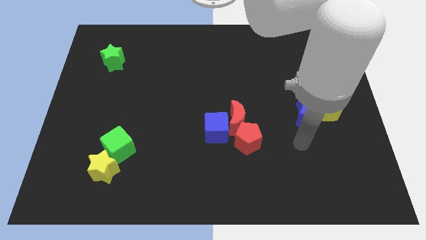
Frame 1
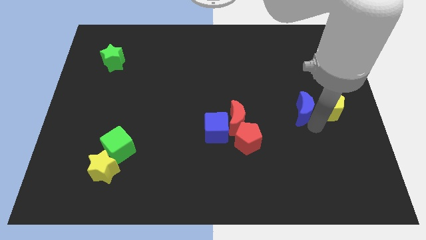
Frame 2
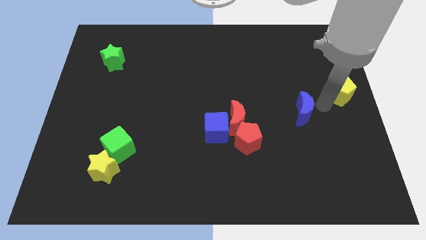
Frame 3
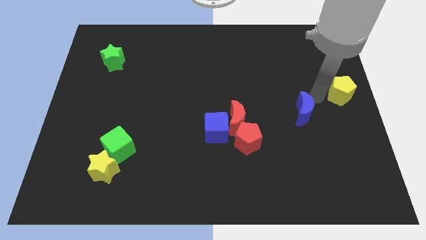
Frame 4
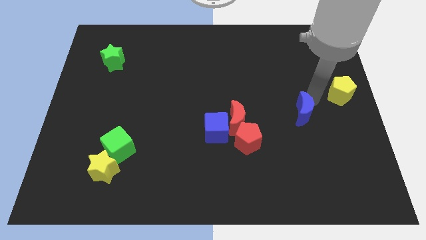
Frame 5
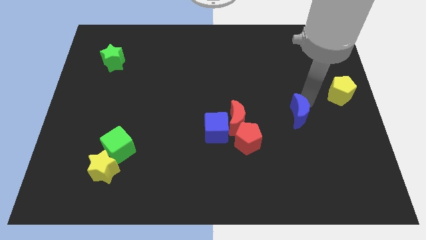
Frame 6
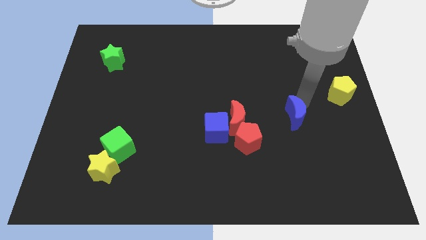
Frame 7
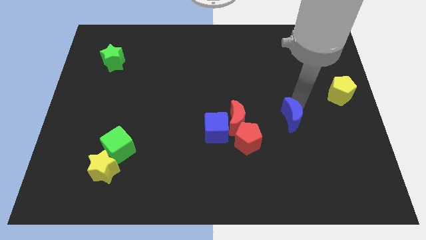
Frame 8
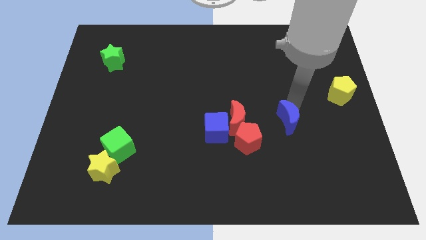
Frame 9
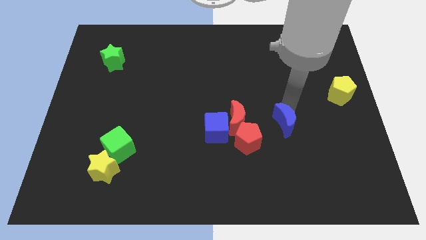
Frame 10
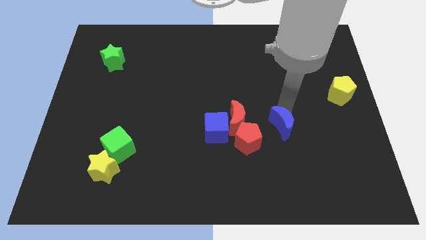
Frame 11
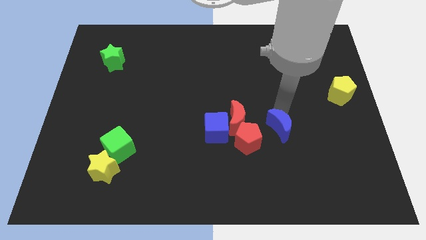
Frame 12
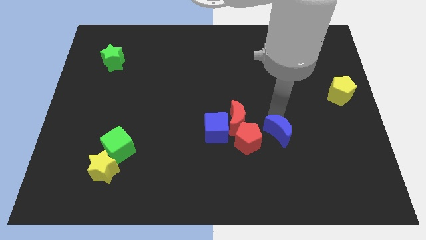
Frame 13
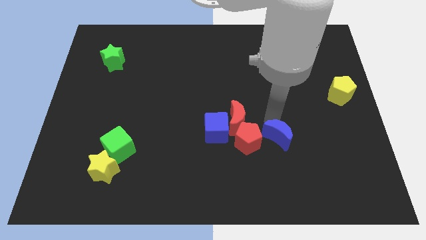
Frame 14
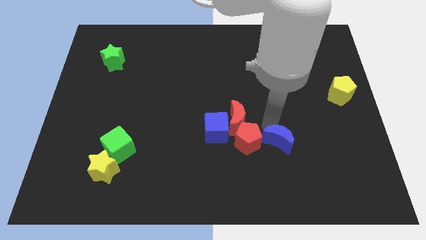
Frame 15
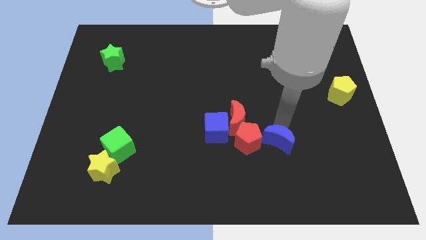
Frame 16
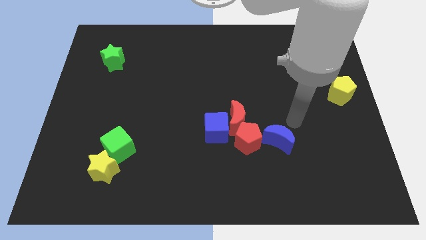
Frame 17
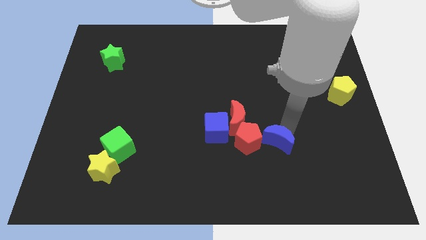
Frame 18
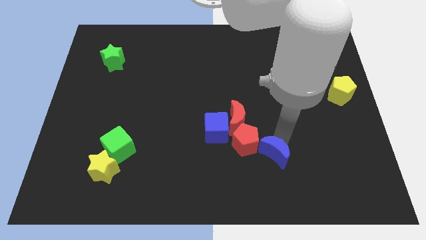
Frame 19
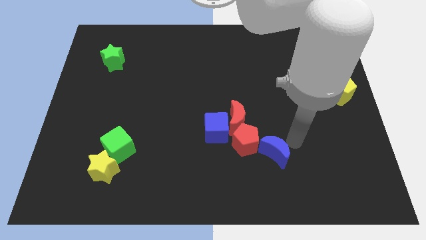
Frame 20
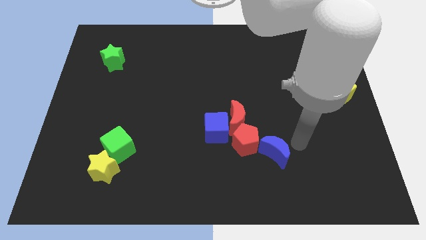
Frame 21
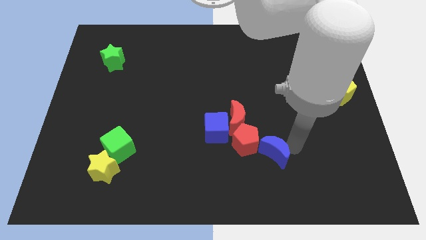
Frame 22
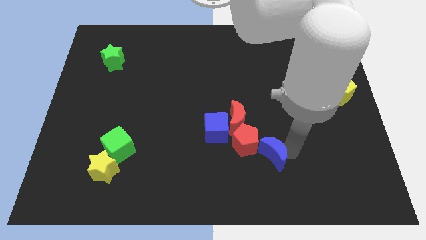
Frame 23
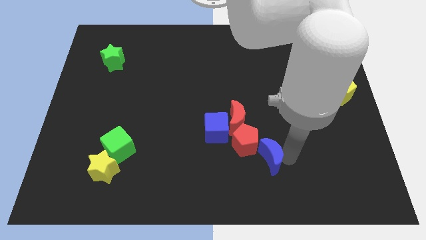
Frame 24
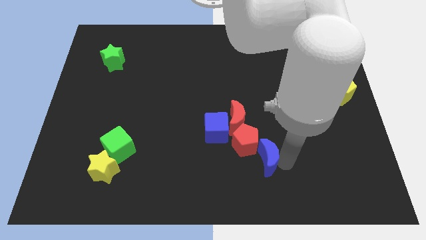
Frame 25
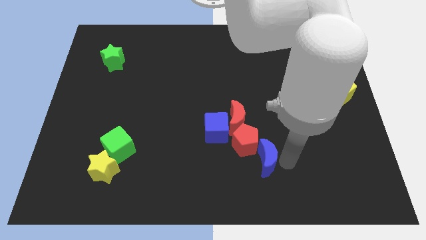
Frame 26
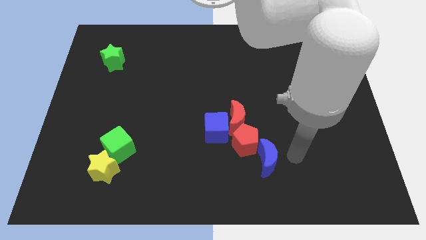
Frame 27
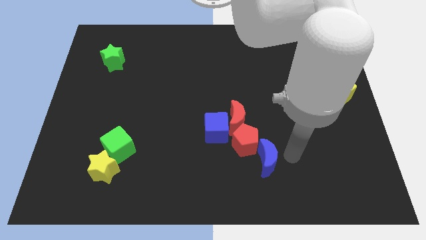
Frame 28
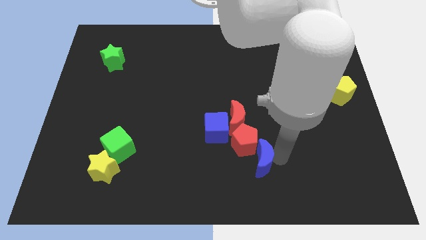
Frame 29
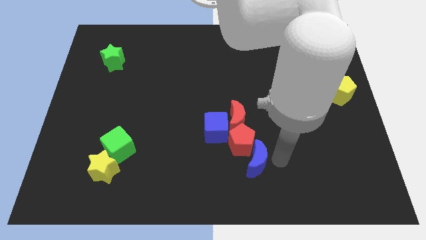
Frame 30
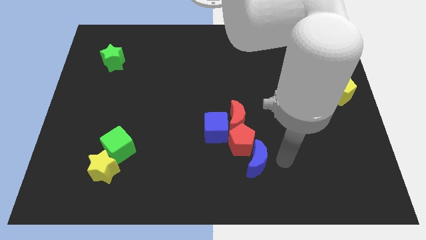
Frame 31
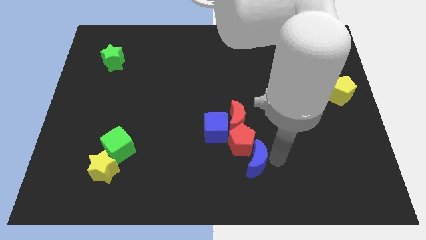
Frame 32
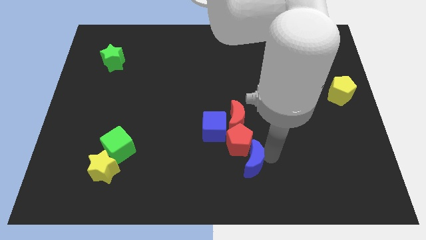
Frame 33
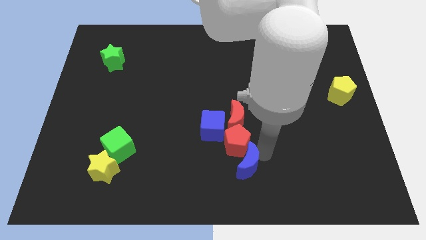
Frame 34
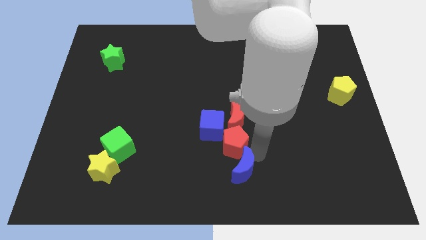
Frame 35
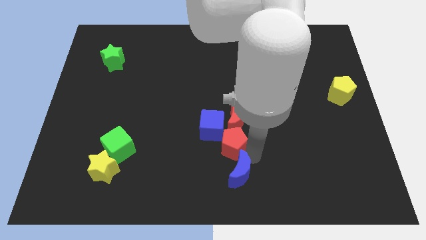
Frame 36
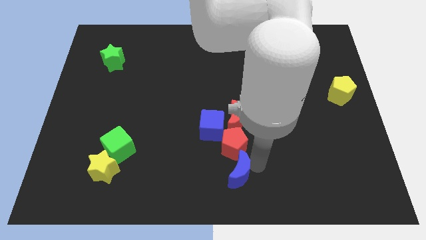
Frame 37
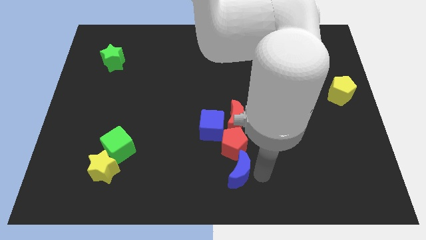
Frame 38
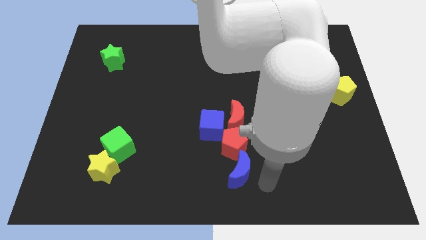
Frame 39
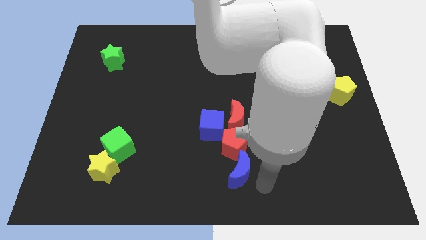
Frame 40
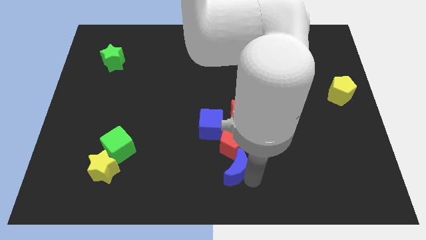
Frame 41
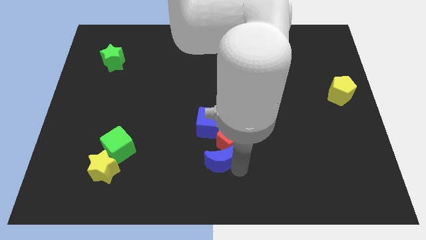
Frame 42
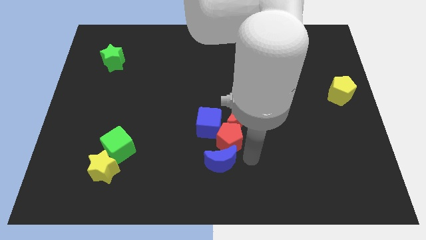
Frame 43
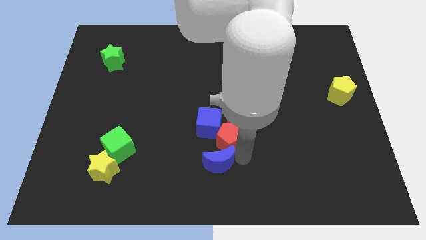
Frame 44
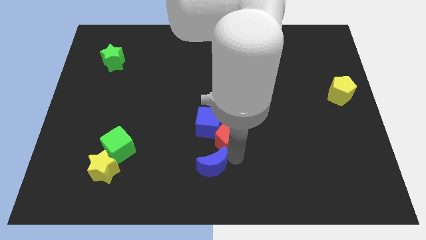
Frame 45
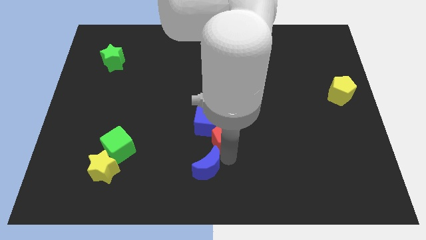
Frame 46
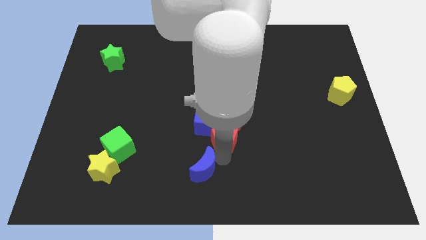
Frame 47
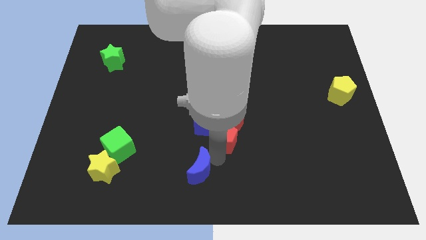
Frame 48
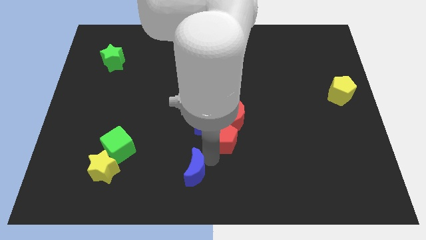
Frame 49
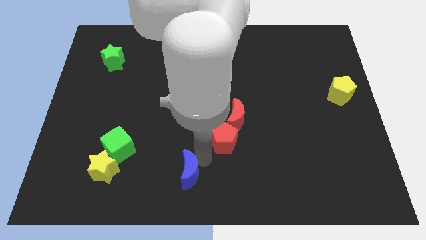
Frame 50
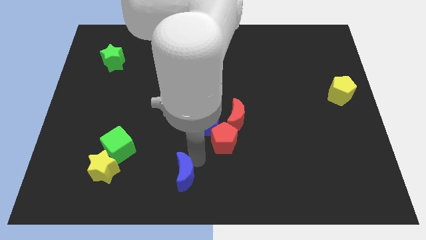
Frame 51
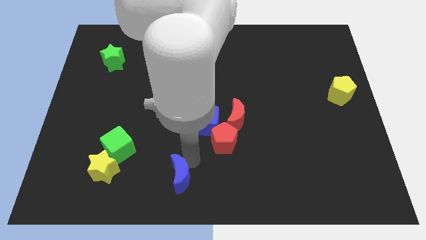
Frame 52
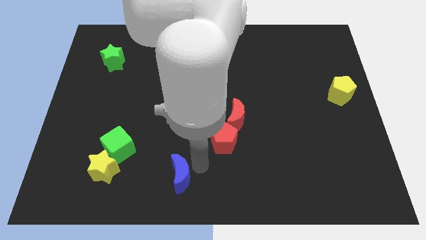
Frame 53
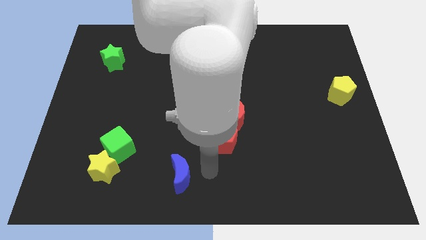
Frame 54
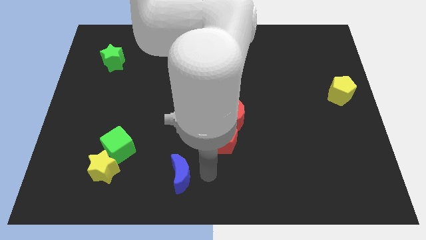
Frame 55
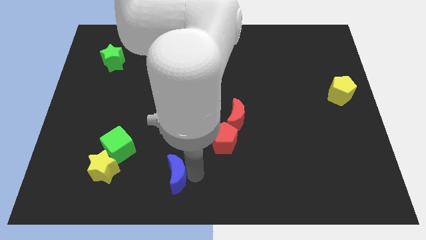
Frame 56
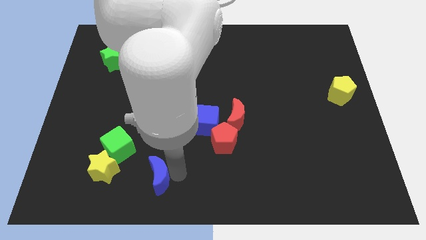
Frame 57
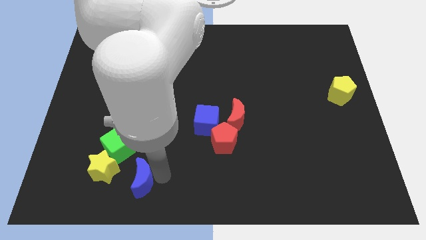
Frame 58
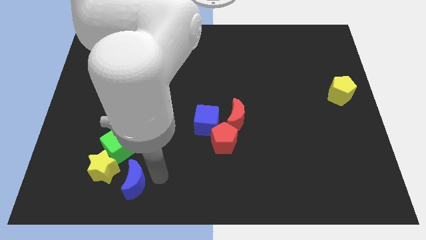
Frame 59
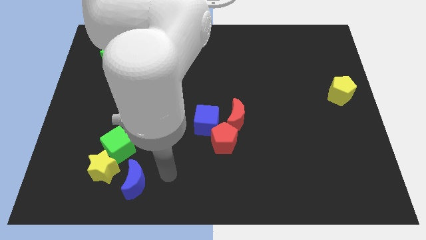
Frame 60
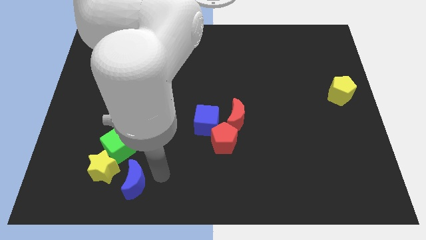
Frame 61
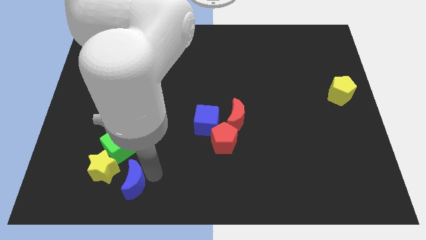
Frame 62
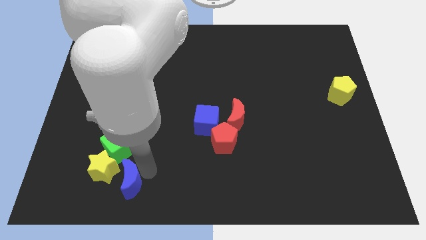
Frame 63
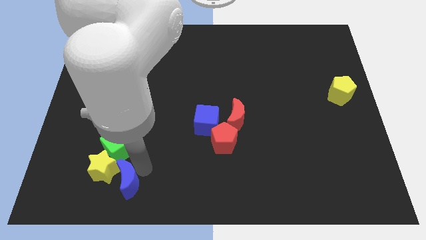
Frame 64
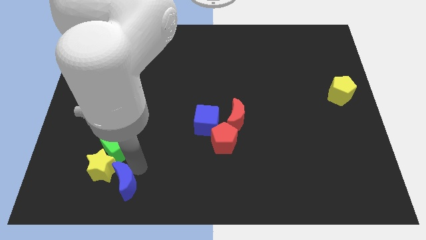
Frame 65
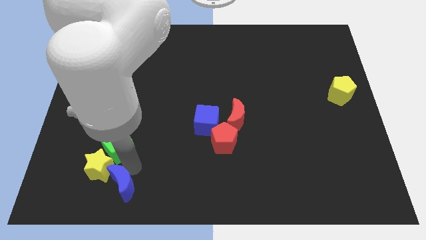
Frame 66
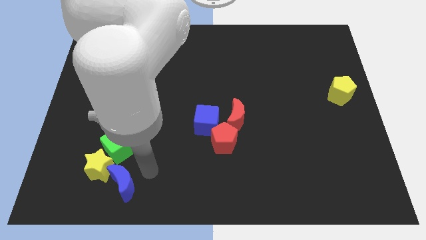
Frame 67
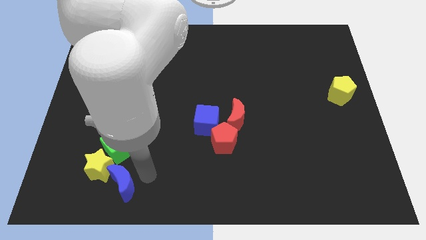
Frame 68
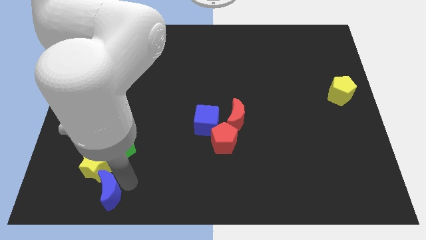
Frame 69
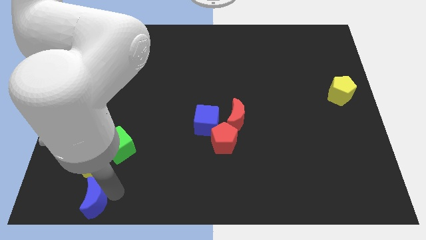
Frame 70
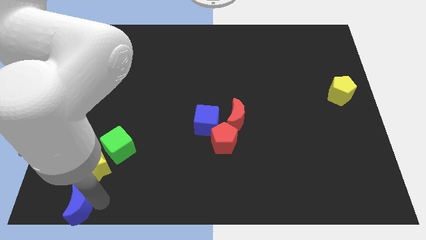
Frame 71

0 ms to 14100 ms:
put the blue moon to the bottom left
